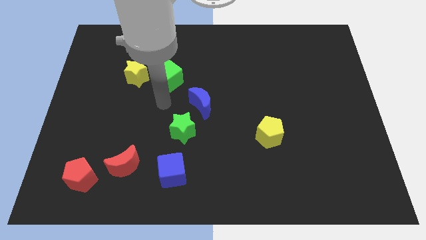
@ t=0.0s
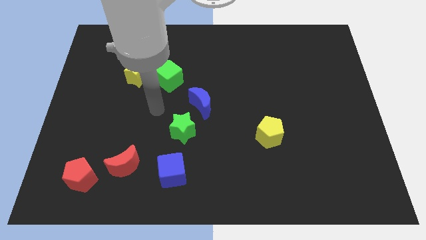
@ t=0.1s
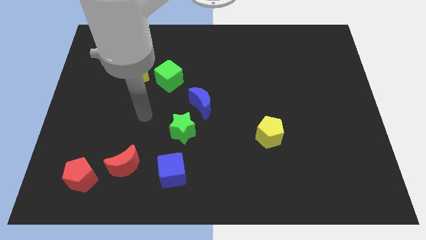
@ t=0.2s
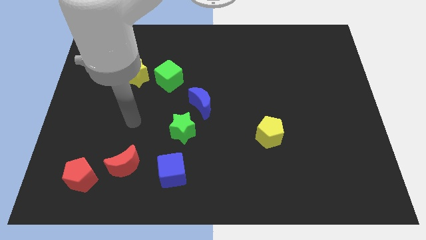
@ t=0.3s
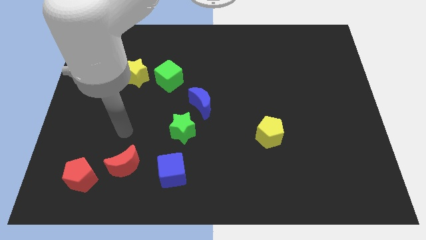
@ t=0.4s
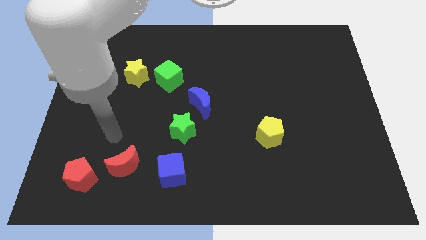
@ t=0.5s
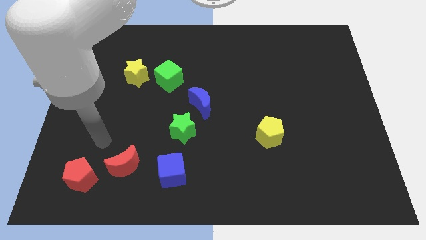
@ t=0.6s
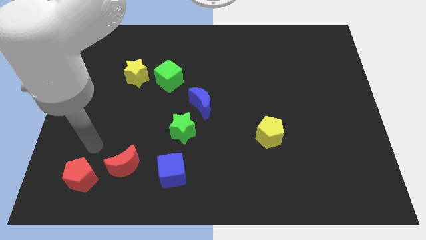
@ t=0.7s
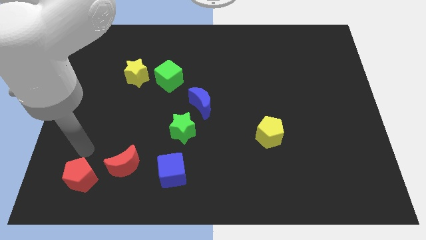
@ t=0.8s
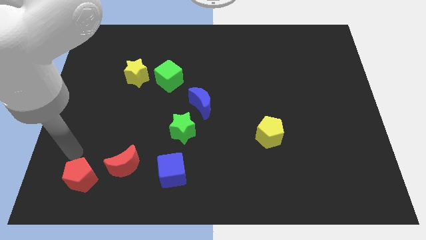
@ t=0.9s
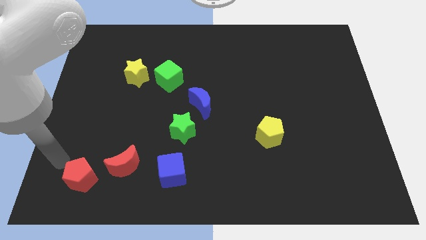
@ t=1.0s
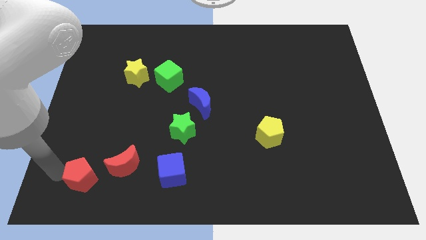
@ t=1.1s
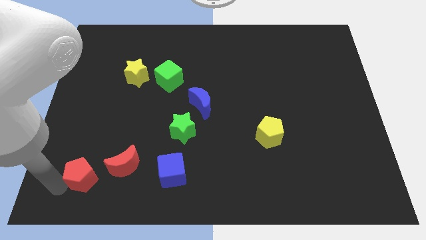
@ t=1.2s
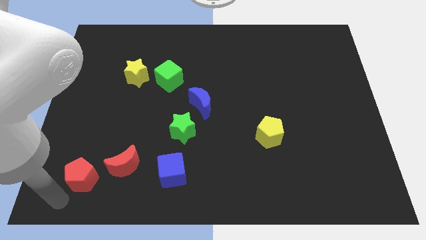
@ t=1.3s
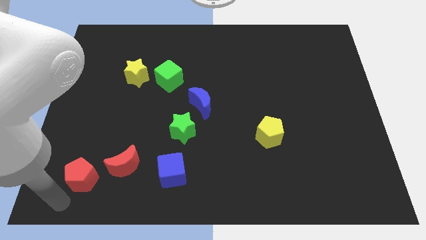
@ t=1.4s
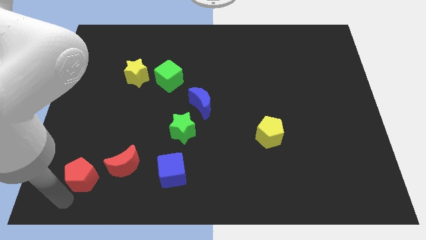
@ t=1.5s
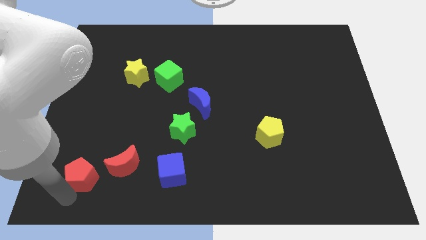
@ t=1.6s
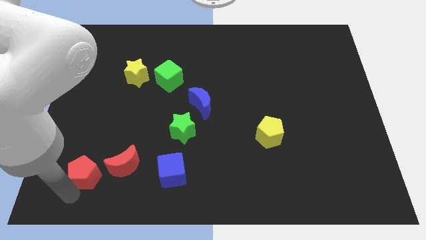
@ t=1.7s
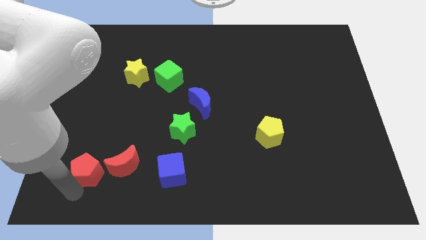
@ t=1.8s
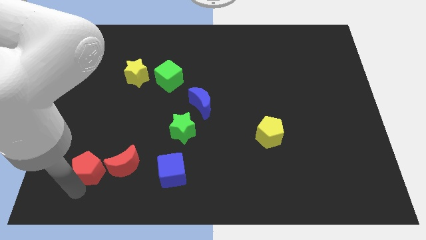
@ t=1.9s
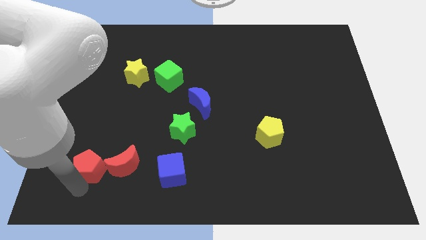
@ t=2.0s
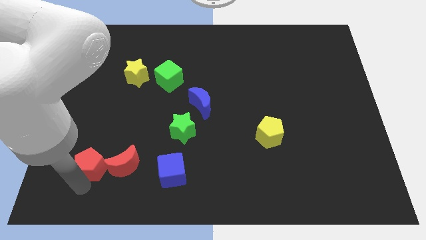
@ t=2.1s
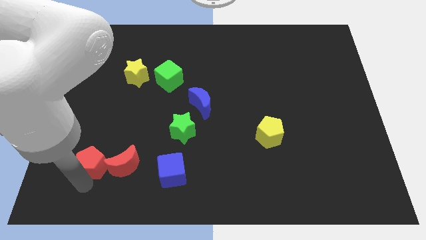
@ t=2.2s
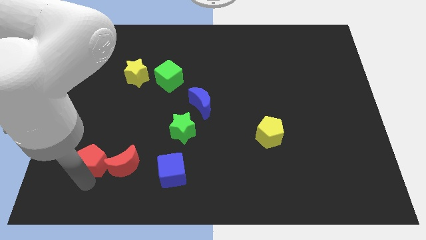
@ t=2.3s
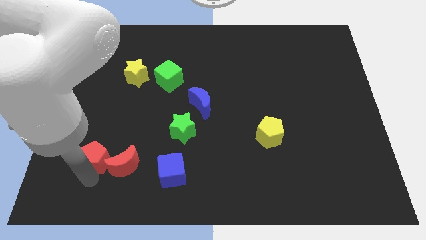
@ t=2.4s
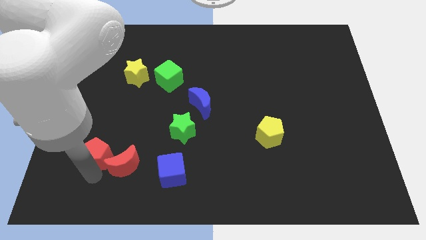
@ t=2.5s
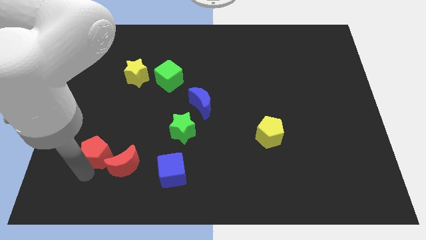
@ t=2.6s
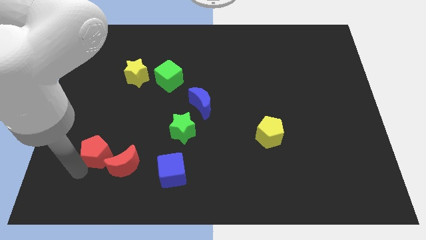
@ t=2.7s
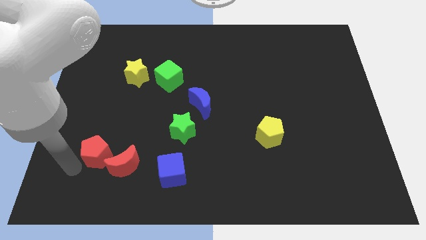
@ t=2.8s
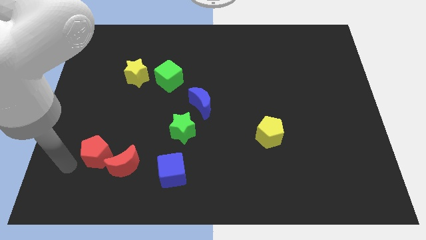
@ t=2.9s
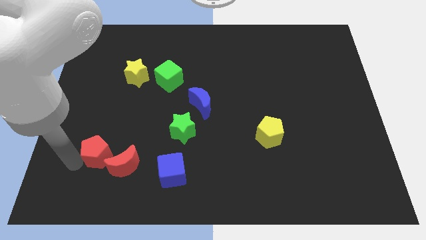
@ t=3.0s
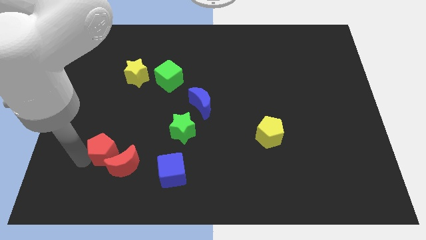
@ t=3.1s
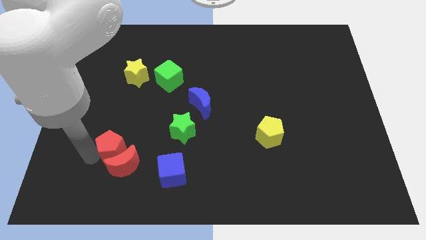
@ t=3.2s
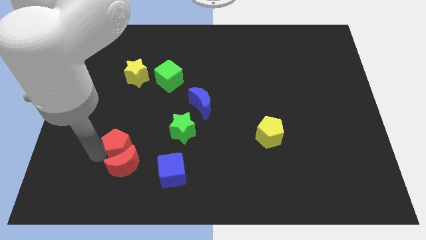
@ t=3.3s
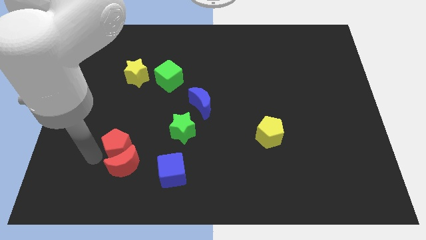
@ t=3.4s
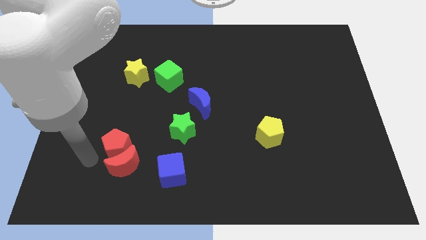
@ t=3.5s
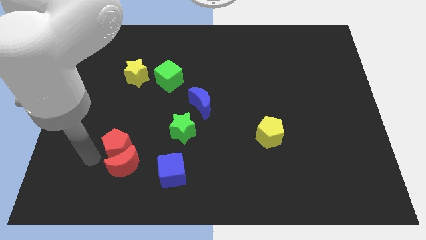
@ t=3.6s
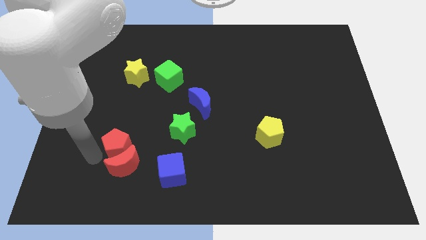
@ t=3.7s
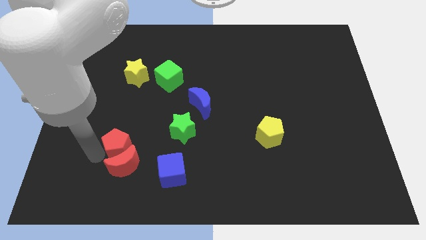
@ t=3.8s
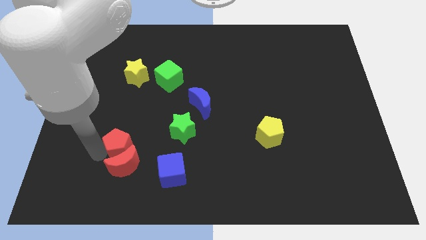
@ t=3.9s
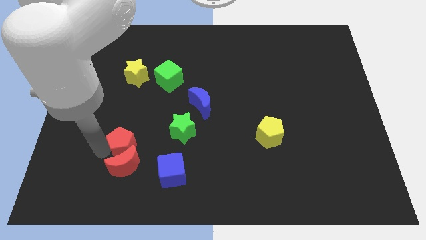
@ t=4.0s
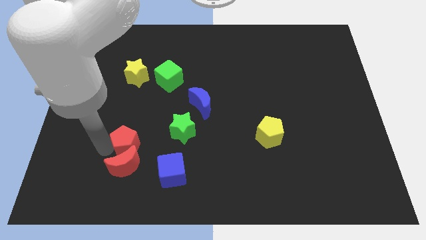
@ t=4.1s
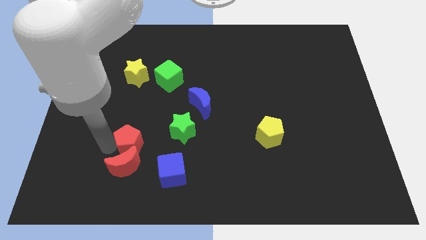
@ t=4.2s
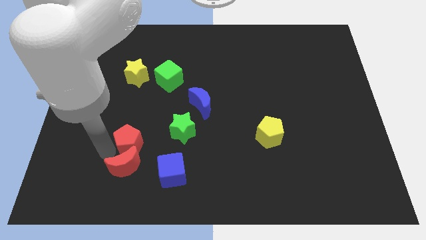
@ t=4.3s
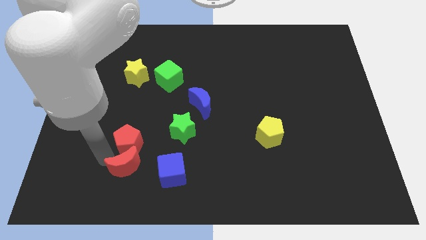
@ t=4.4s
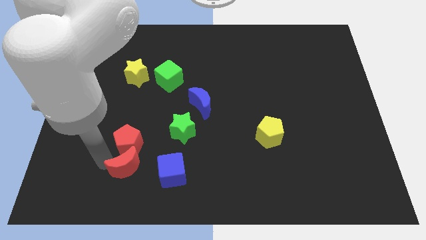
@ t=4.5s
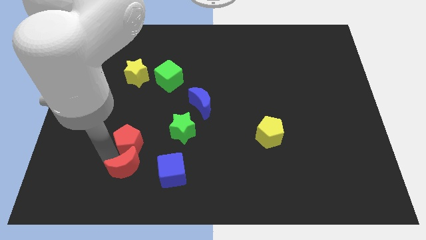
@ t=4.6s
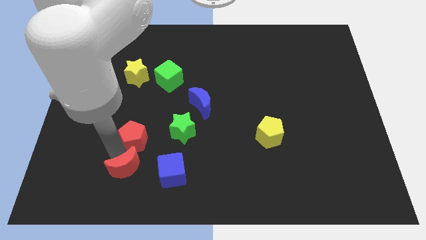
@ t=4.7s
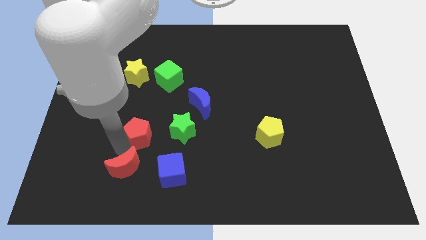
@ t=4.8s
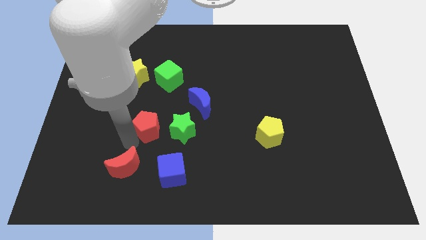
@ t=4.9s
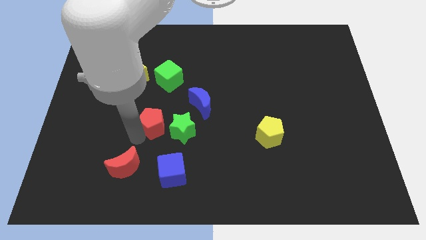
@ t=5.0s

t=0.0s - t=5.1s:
push the red pentagon to the bottom side of the green cube

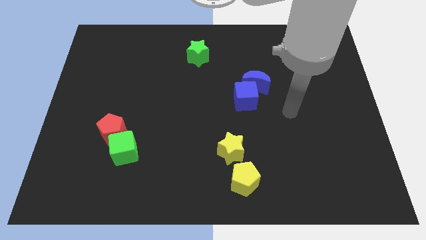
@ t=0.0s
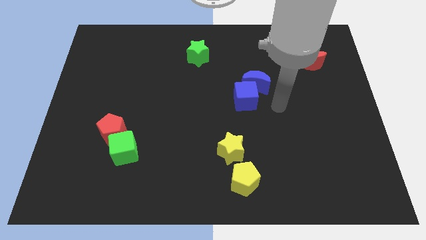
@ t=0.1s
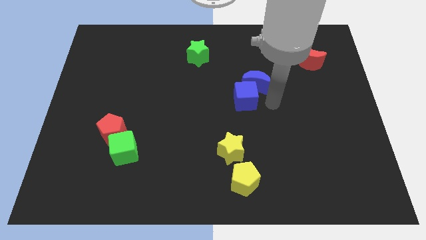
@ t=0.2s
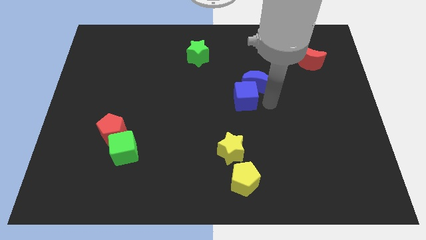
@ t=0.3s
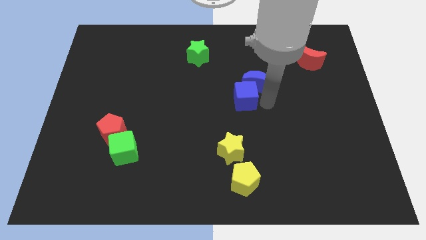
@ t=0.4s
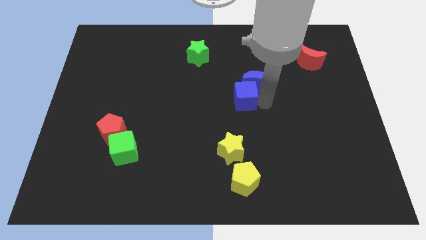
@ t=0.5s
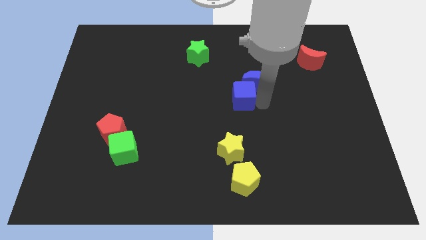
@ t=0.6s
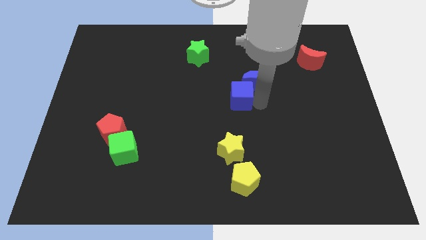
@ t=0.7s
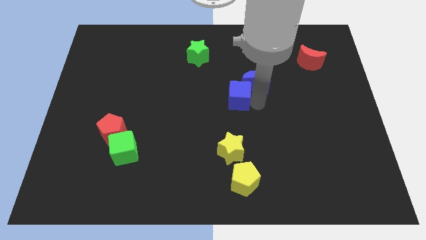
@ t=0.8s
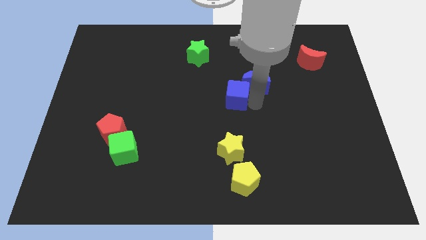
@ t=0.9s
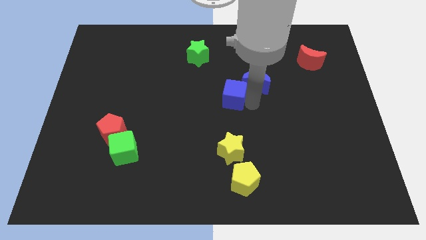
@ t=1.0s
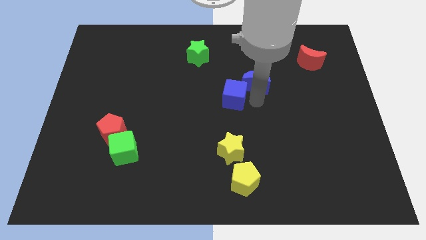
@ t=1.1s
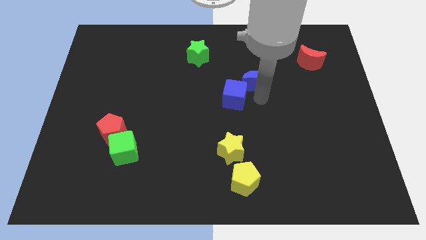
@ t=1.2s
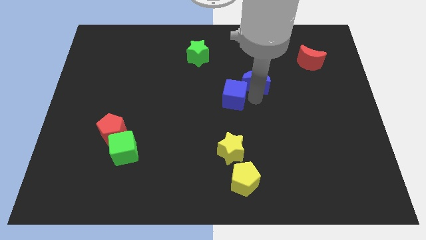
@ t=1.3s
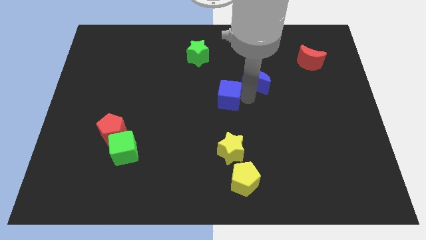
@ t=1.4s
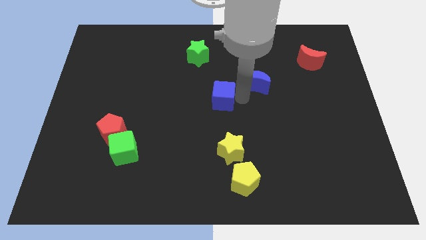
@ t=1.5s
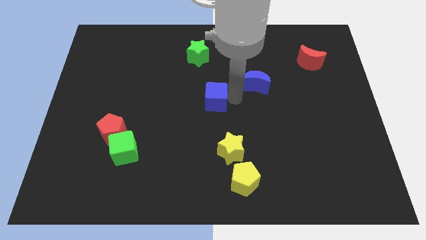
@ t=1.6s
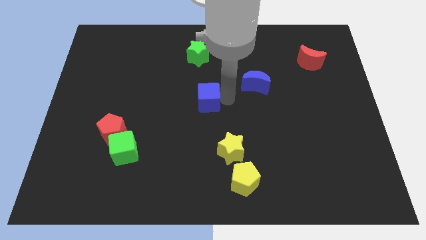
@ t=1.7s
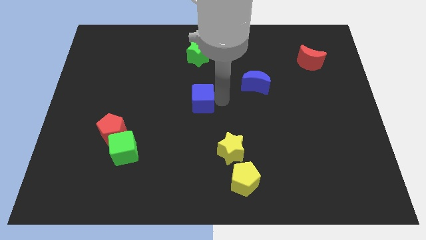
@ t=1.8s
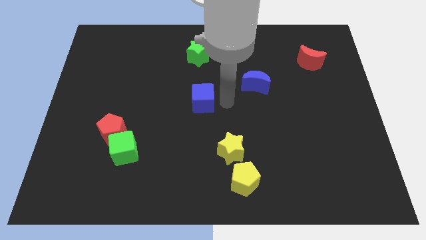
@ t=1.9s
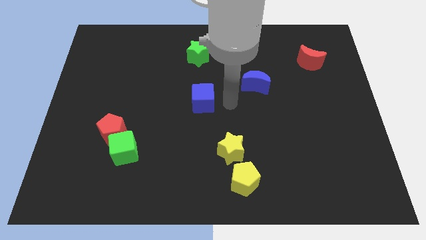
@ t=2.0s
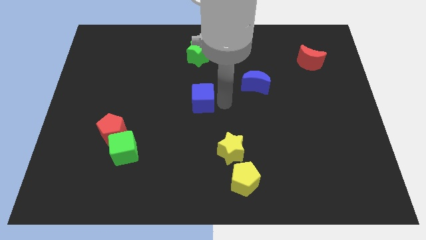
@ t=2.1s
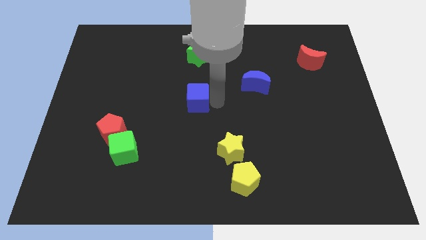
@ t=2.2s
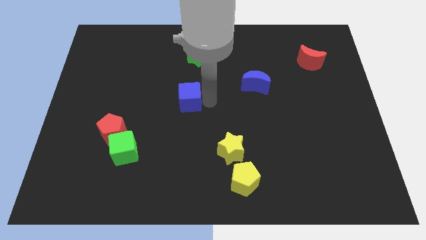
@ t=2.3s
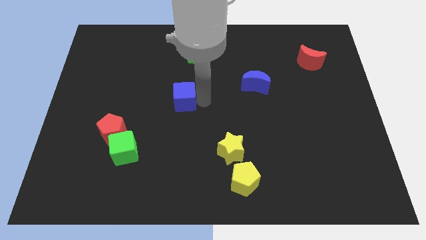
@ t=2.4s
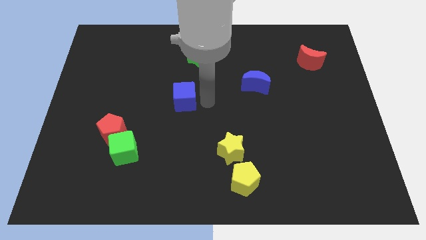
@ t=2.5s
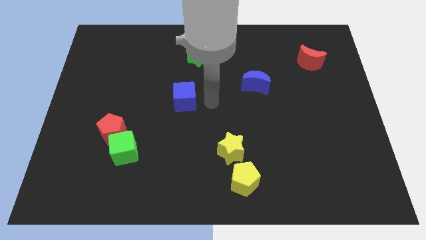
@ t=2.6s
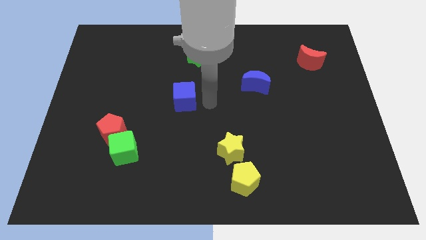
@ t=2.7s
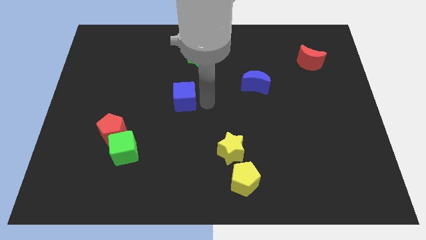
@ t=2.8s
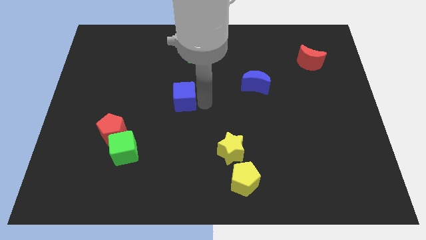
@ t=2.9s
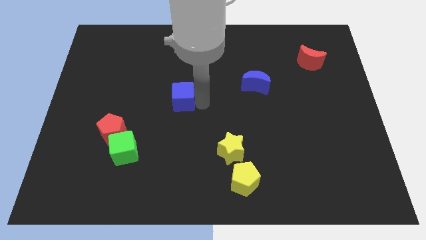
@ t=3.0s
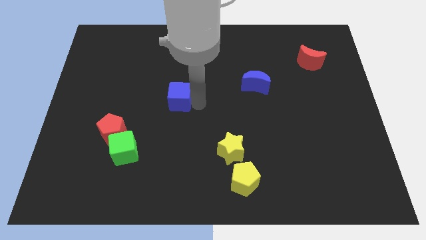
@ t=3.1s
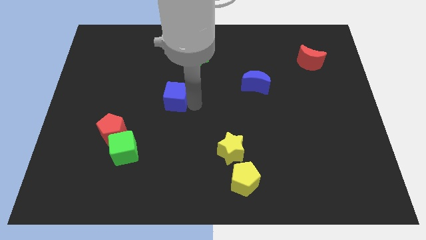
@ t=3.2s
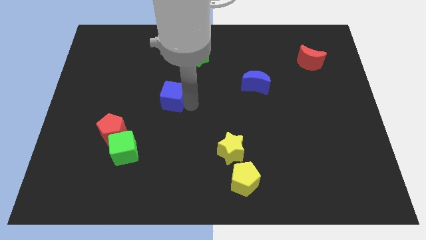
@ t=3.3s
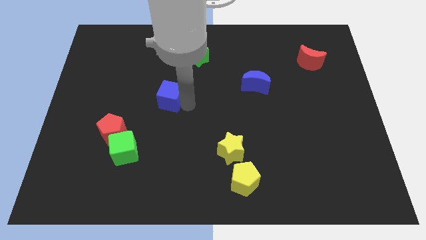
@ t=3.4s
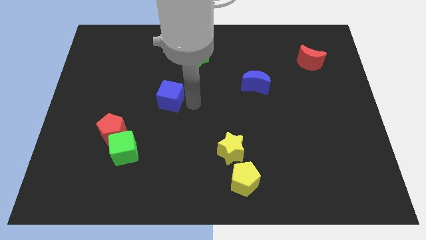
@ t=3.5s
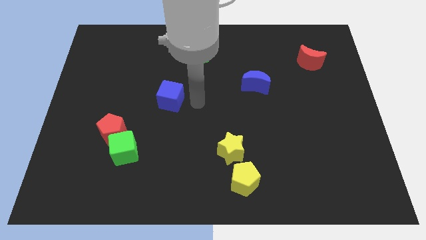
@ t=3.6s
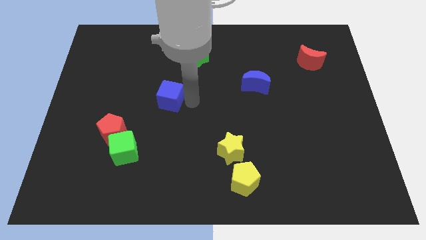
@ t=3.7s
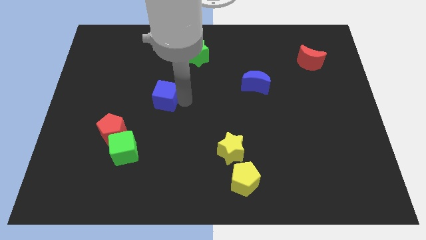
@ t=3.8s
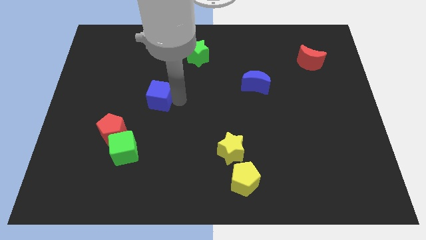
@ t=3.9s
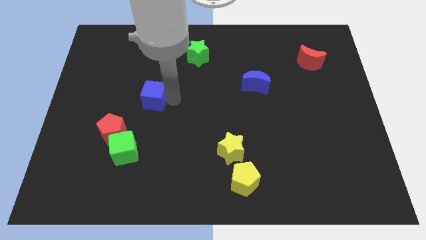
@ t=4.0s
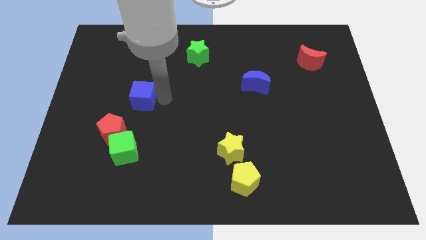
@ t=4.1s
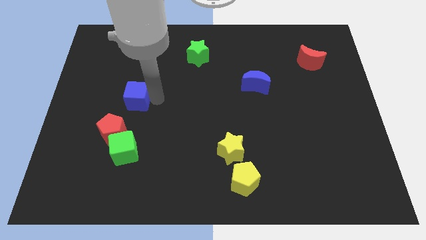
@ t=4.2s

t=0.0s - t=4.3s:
move the blue cube above the red pentagon
